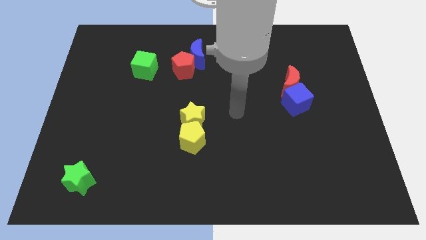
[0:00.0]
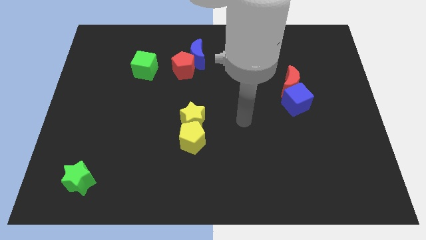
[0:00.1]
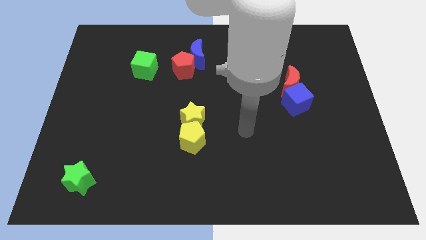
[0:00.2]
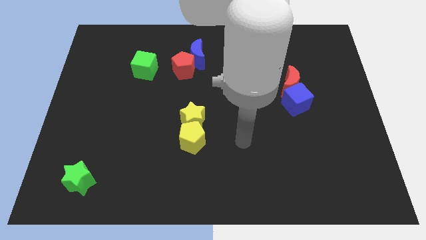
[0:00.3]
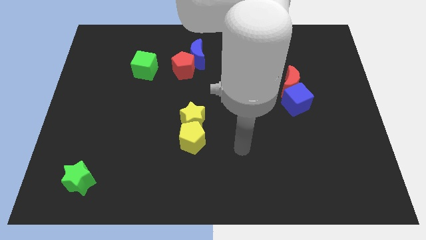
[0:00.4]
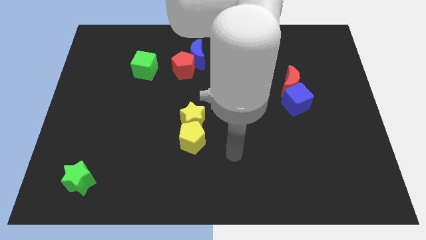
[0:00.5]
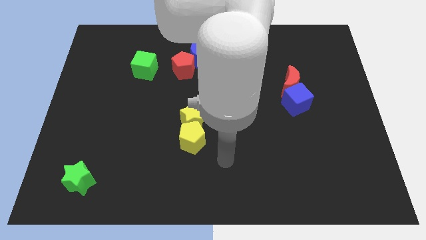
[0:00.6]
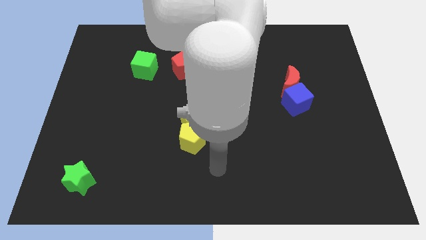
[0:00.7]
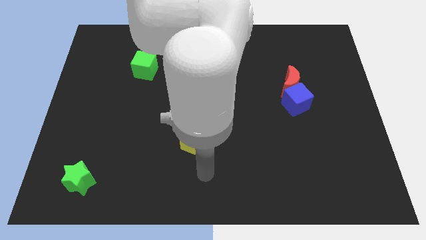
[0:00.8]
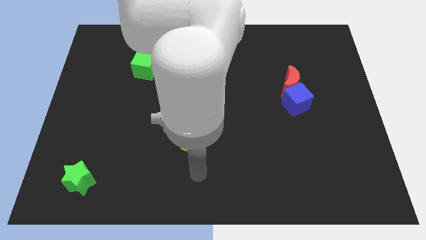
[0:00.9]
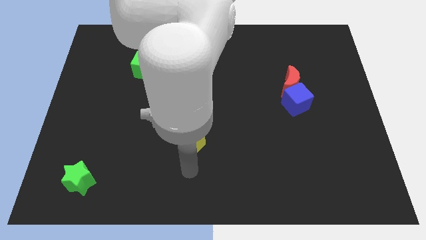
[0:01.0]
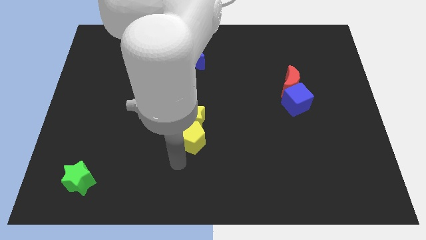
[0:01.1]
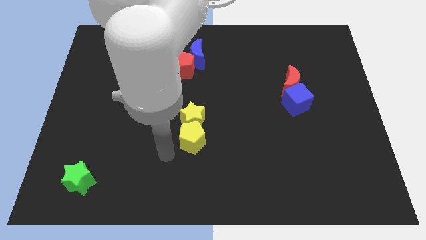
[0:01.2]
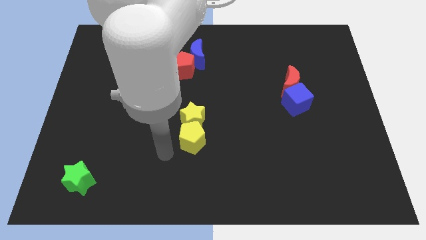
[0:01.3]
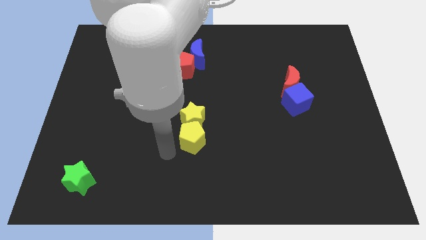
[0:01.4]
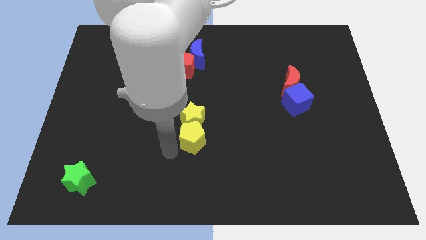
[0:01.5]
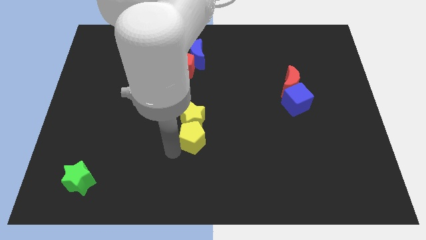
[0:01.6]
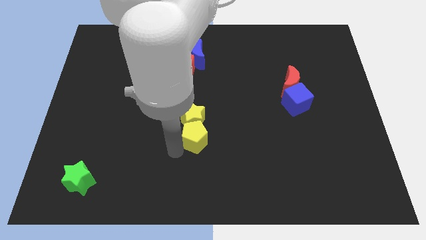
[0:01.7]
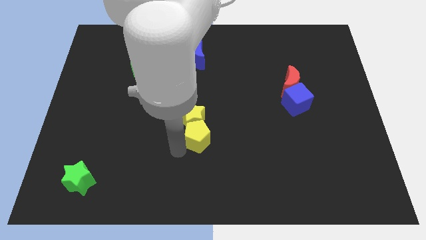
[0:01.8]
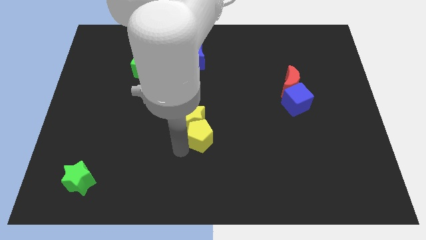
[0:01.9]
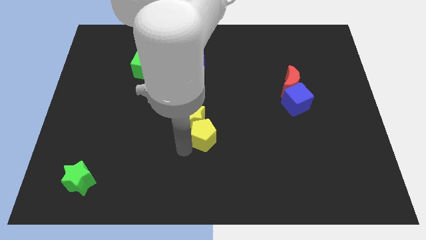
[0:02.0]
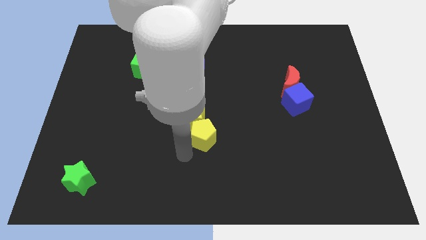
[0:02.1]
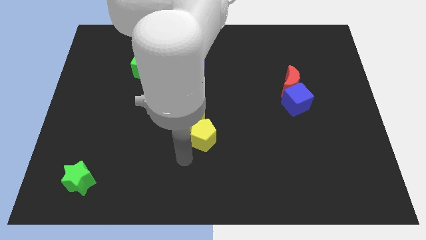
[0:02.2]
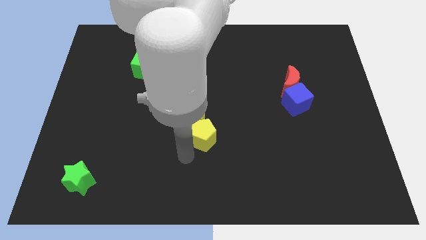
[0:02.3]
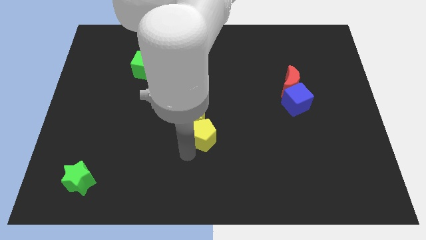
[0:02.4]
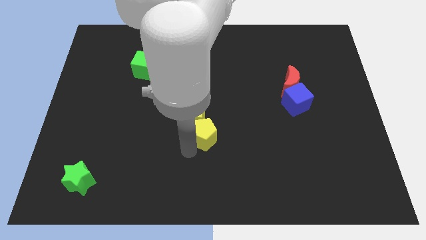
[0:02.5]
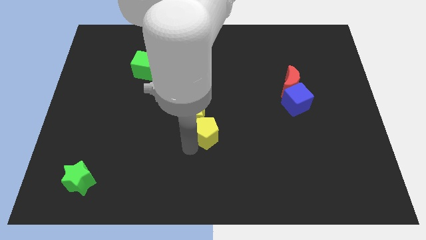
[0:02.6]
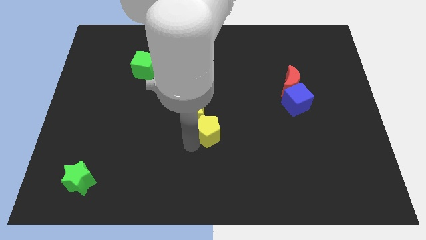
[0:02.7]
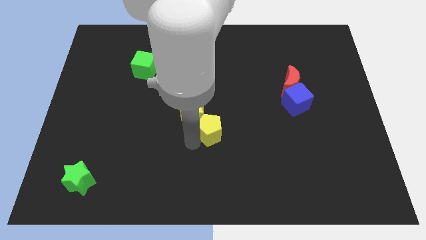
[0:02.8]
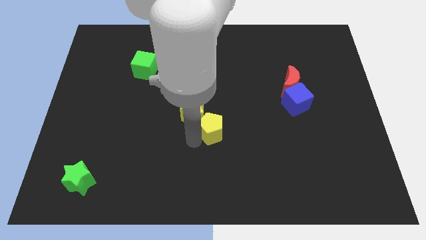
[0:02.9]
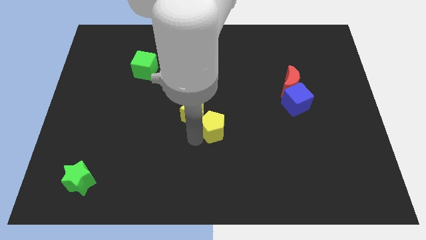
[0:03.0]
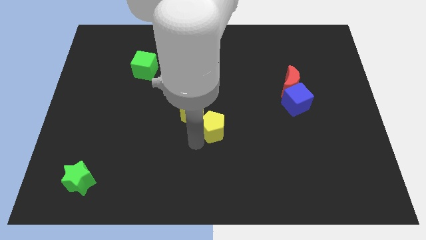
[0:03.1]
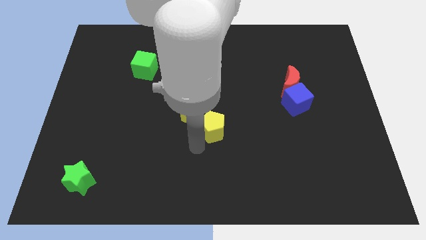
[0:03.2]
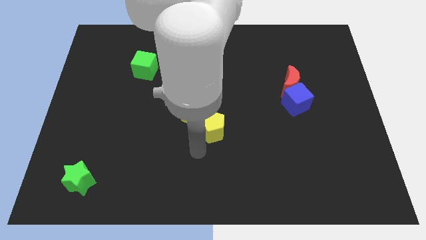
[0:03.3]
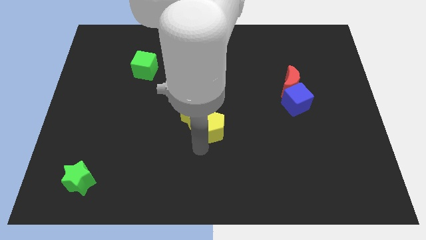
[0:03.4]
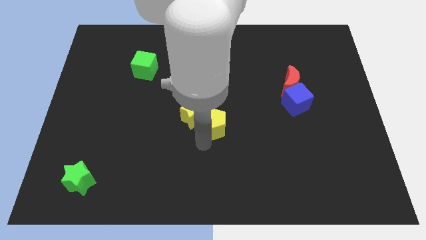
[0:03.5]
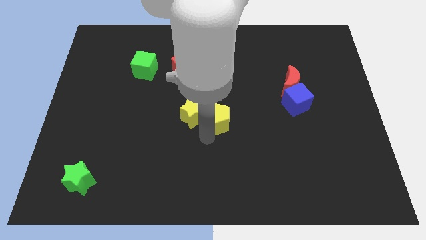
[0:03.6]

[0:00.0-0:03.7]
push the yellow pentagon slightly up and right

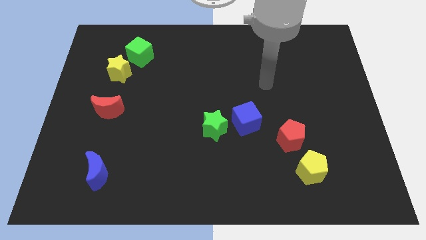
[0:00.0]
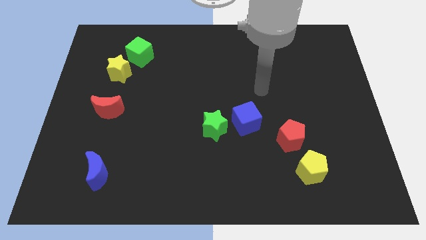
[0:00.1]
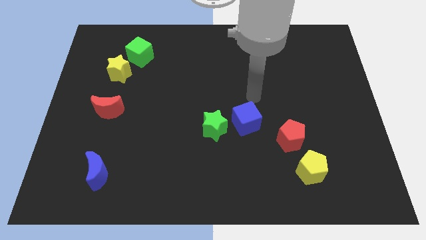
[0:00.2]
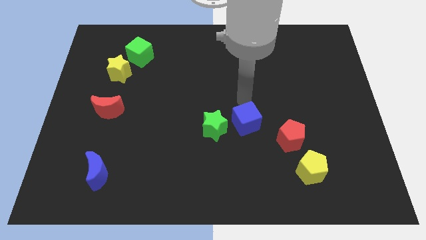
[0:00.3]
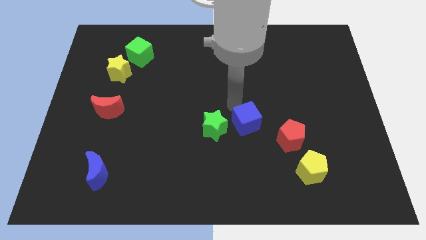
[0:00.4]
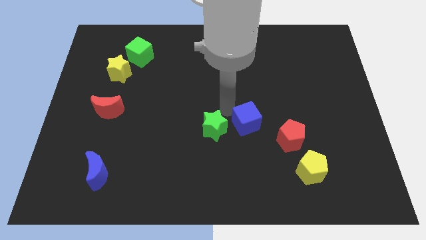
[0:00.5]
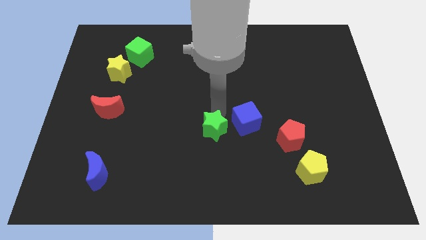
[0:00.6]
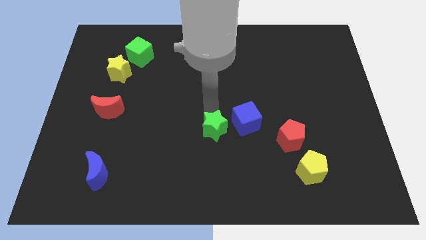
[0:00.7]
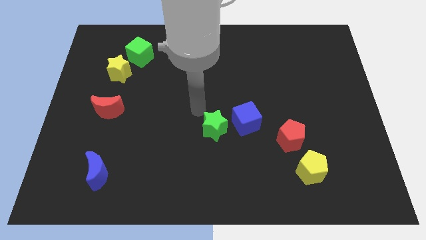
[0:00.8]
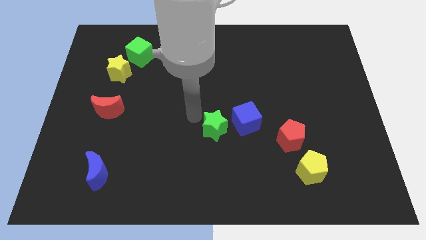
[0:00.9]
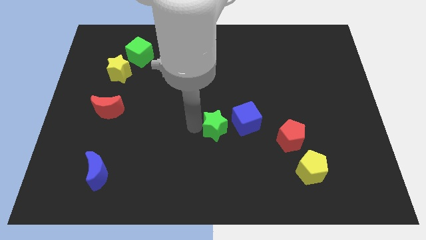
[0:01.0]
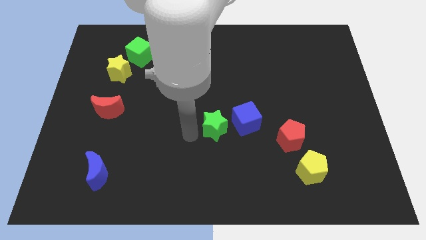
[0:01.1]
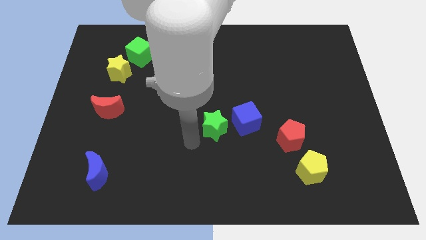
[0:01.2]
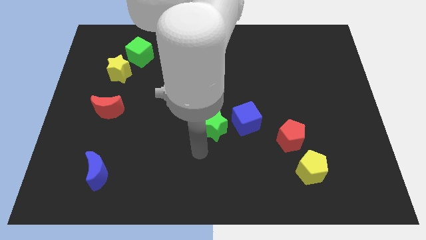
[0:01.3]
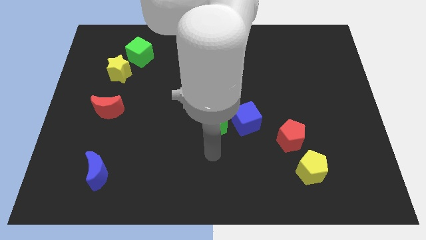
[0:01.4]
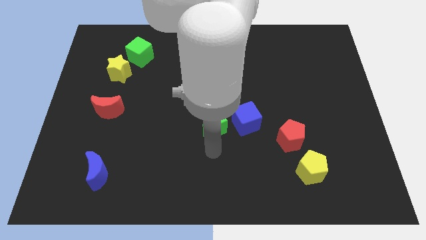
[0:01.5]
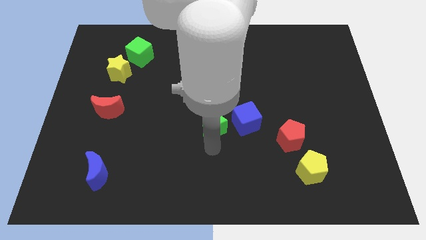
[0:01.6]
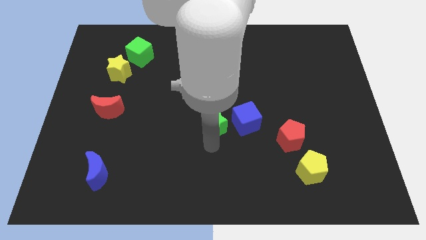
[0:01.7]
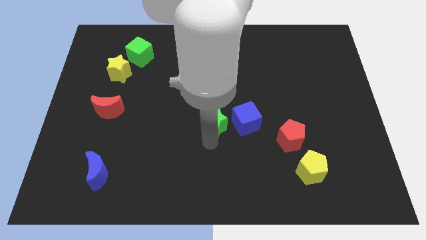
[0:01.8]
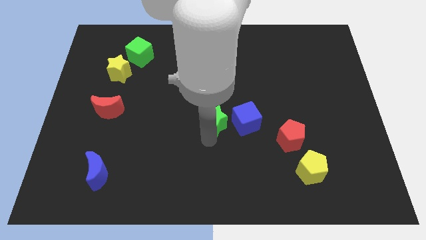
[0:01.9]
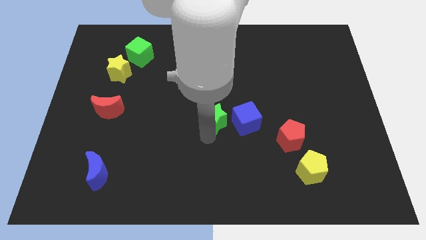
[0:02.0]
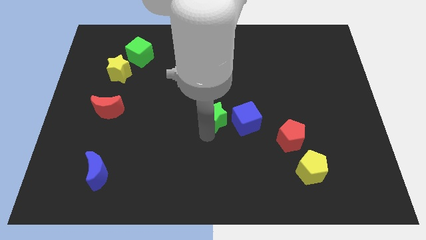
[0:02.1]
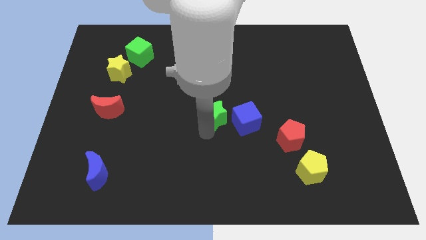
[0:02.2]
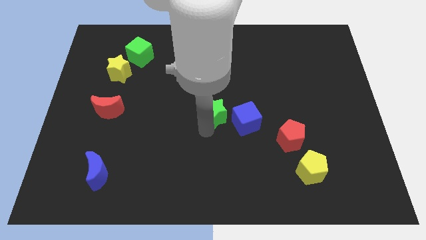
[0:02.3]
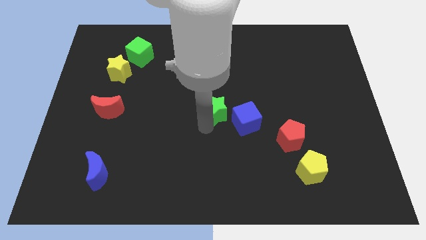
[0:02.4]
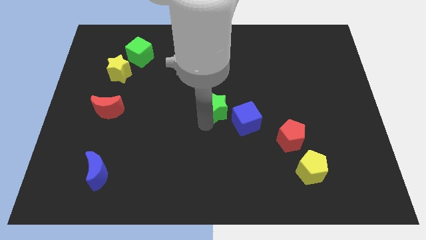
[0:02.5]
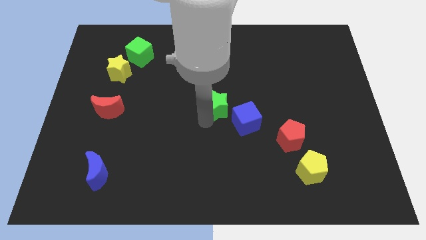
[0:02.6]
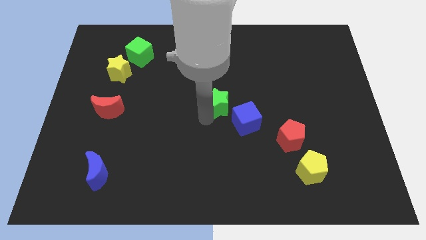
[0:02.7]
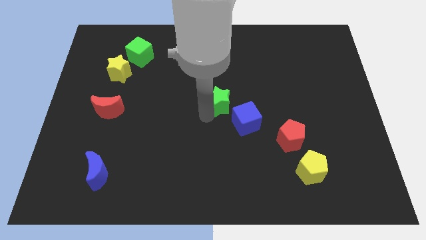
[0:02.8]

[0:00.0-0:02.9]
slightly push the green star upwards

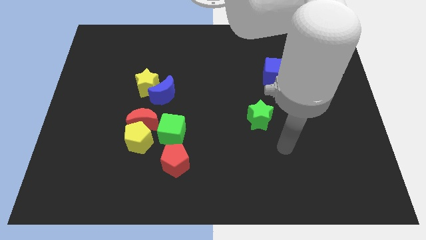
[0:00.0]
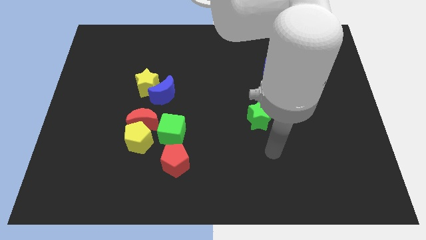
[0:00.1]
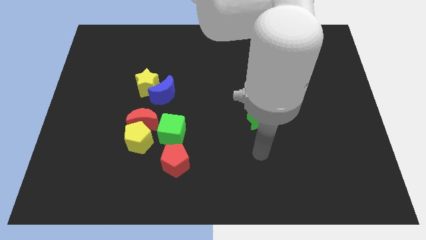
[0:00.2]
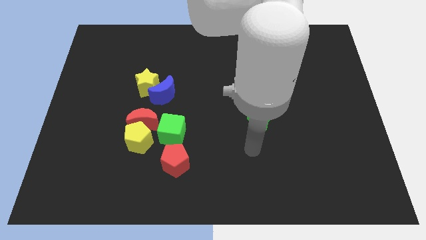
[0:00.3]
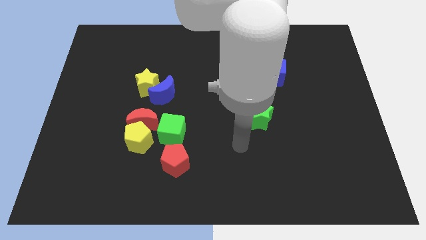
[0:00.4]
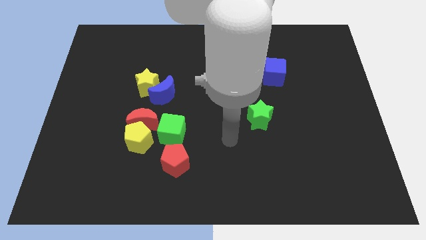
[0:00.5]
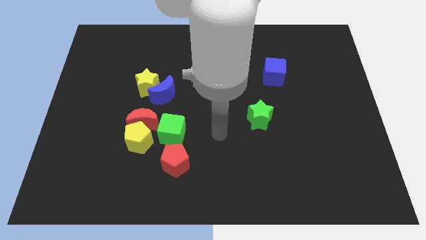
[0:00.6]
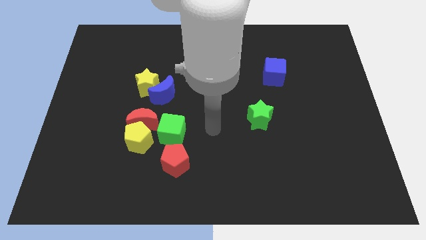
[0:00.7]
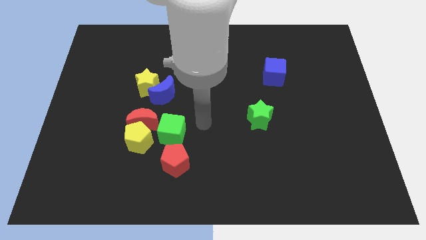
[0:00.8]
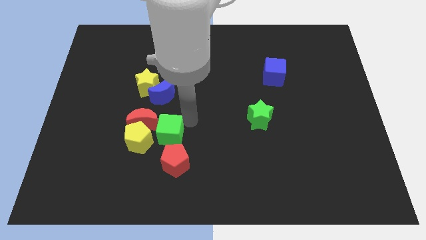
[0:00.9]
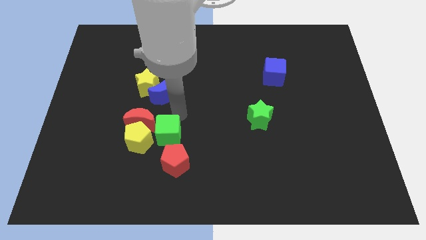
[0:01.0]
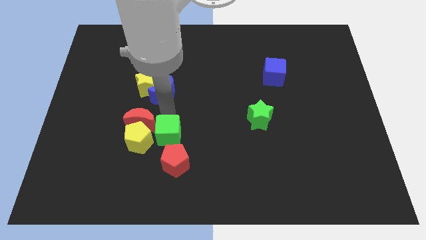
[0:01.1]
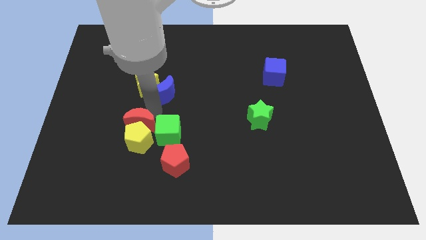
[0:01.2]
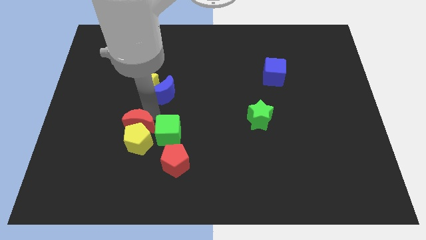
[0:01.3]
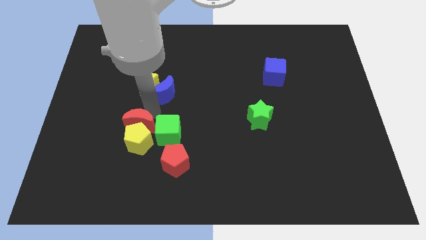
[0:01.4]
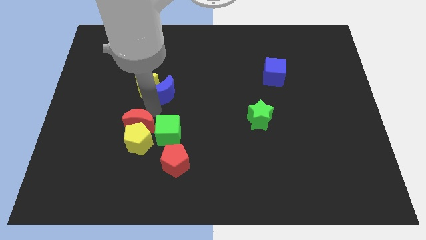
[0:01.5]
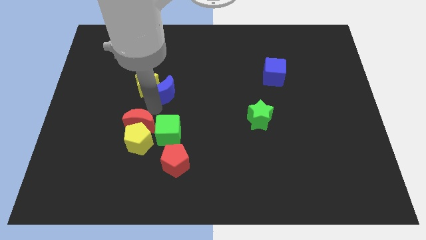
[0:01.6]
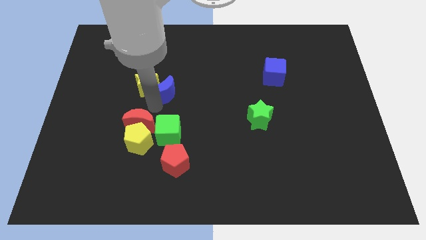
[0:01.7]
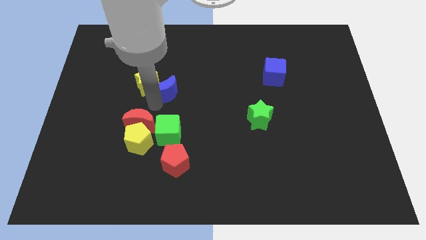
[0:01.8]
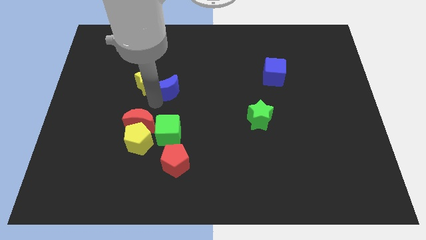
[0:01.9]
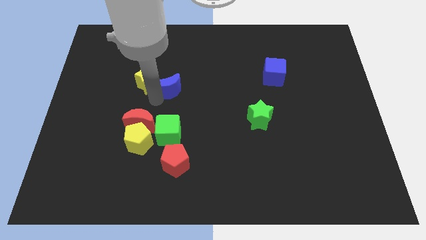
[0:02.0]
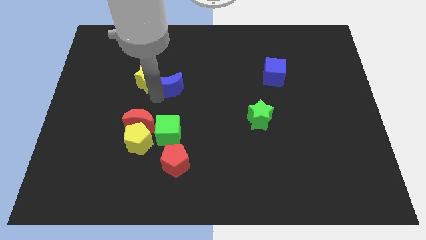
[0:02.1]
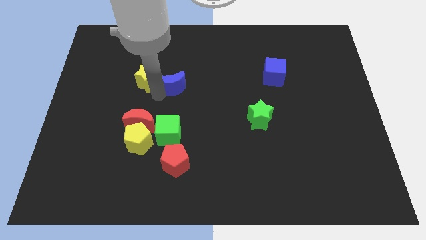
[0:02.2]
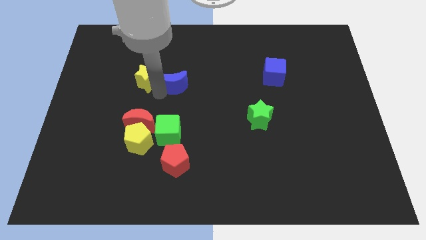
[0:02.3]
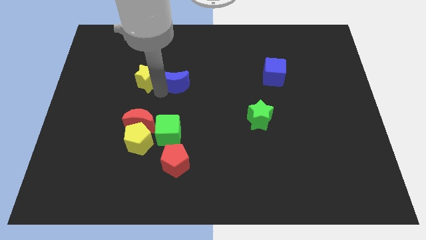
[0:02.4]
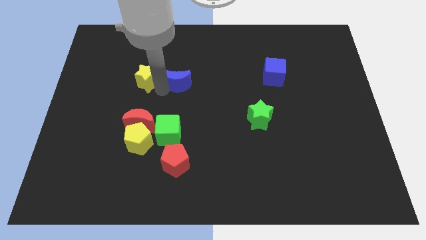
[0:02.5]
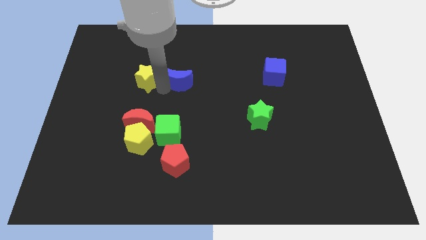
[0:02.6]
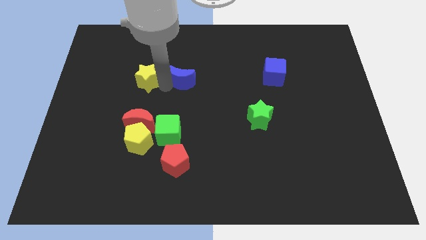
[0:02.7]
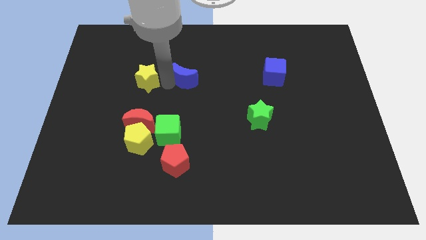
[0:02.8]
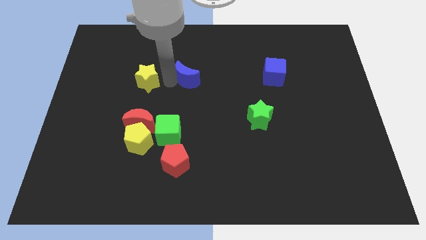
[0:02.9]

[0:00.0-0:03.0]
move the blue moon somewhat upwards and right diagonally
